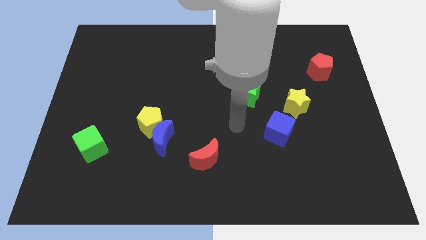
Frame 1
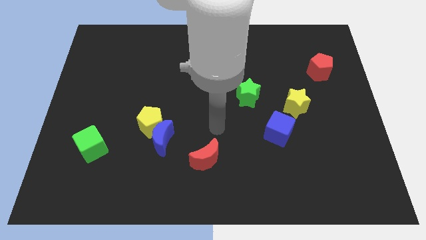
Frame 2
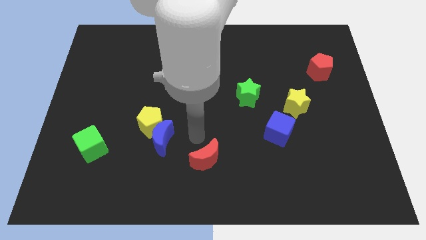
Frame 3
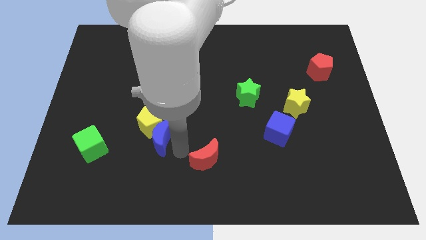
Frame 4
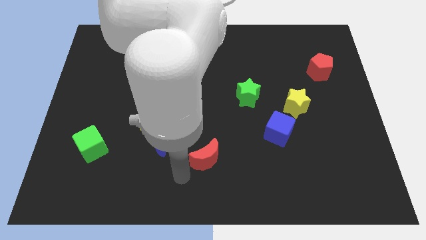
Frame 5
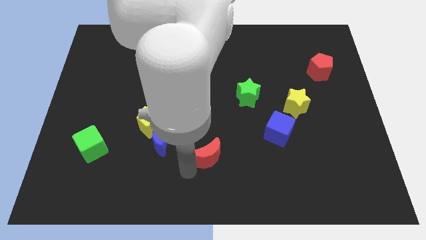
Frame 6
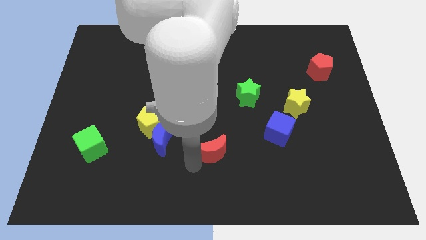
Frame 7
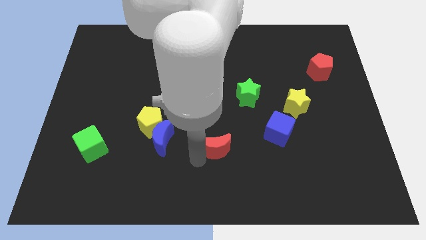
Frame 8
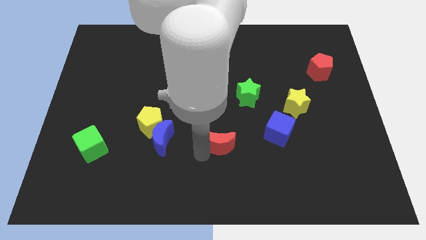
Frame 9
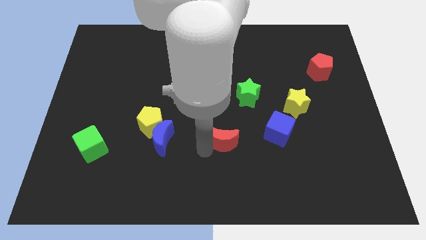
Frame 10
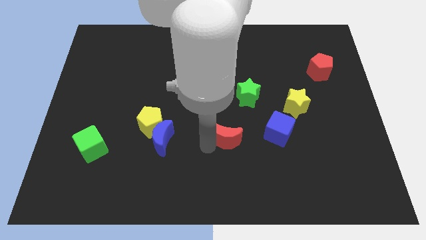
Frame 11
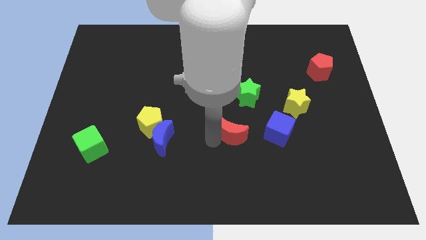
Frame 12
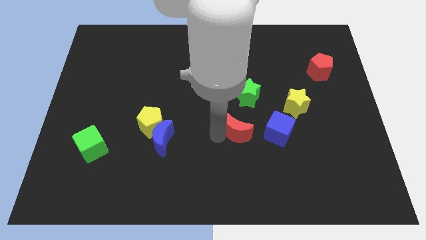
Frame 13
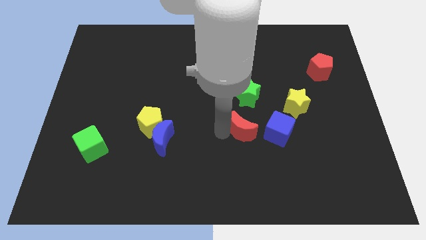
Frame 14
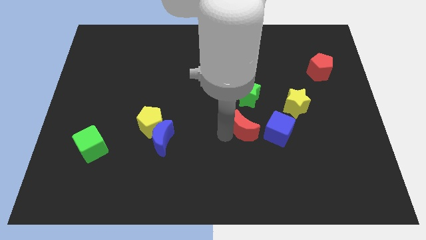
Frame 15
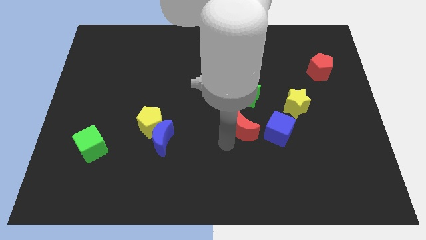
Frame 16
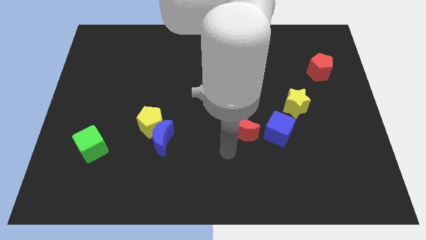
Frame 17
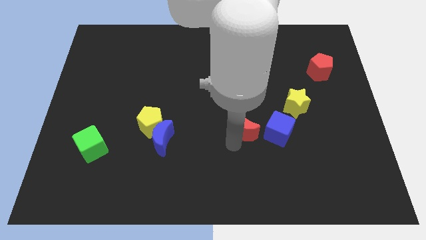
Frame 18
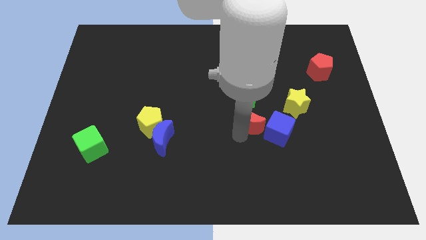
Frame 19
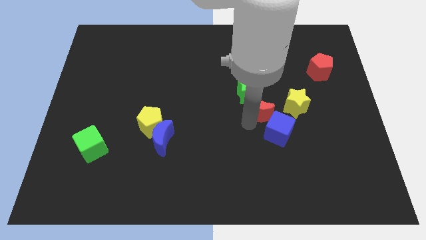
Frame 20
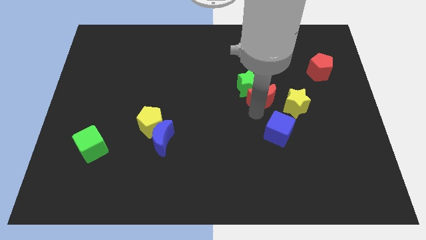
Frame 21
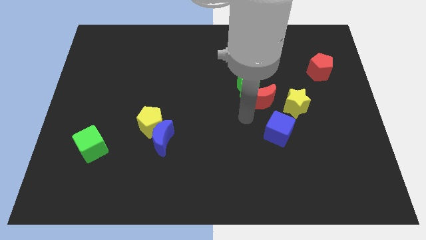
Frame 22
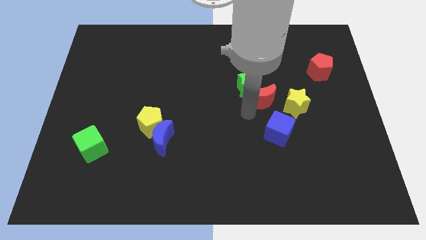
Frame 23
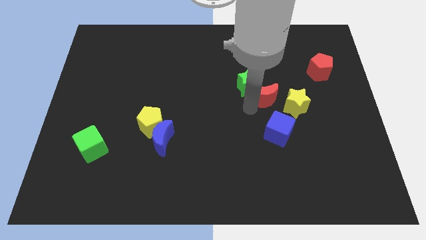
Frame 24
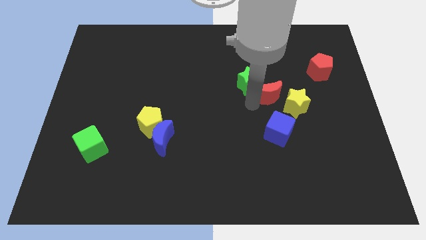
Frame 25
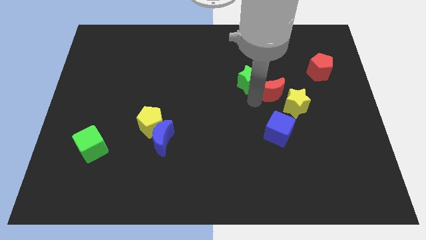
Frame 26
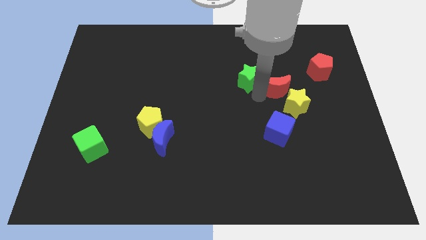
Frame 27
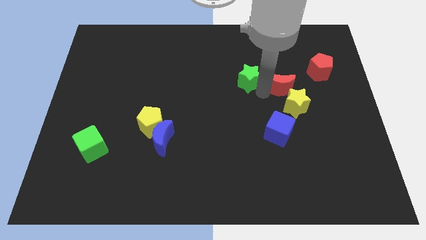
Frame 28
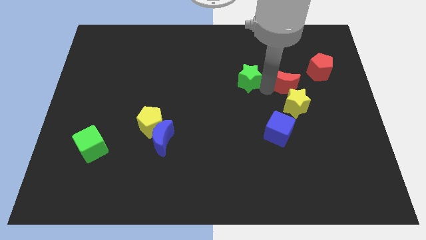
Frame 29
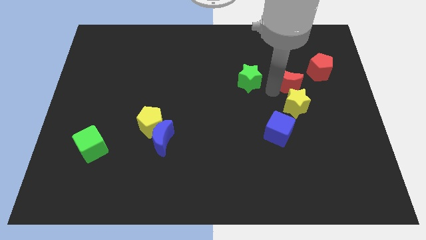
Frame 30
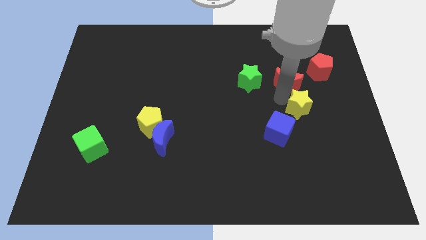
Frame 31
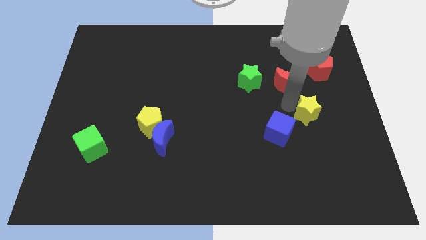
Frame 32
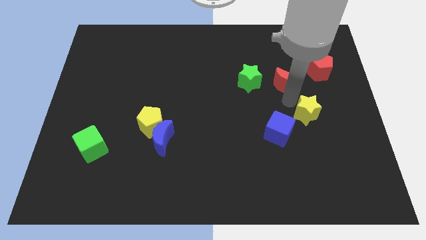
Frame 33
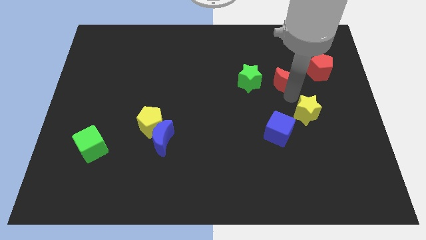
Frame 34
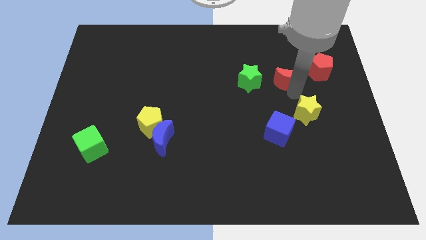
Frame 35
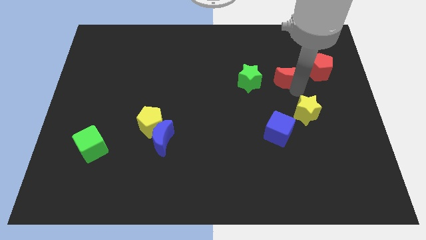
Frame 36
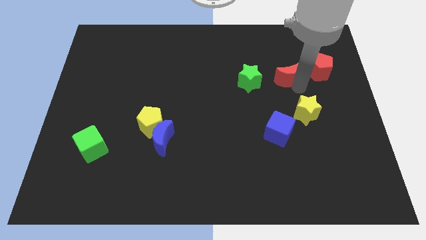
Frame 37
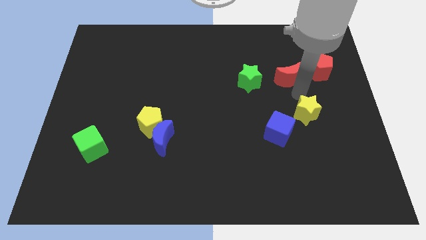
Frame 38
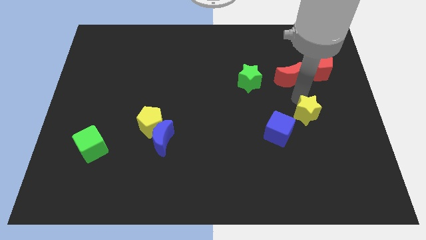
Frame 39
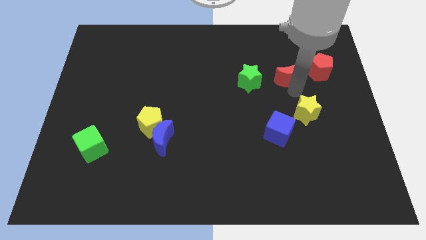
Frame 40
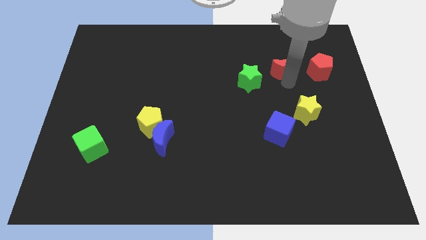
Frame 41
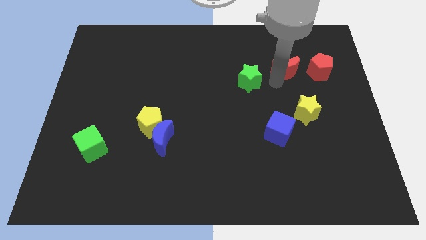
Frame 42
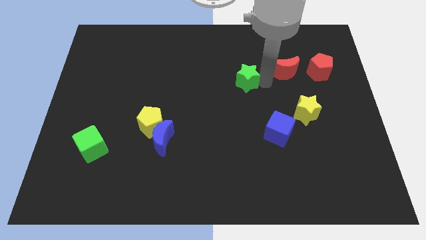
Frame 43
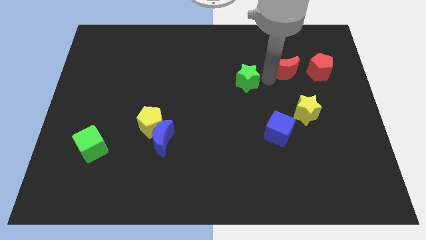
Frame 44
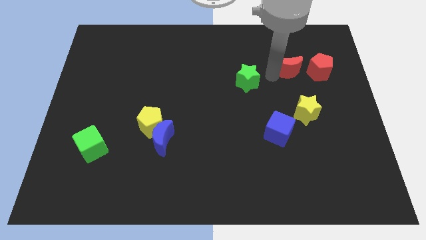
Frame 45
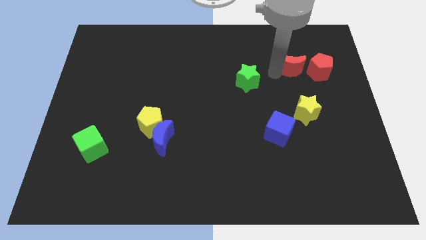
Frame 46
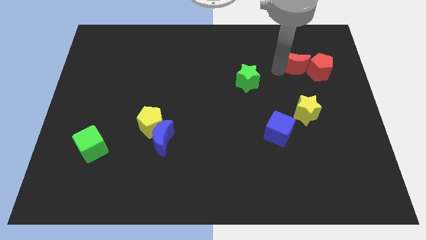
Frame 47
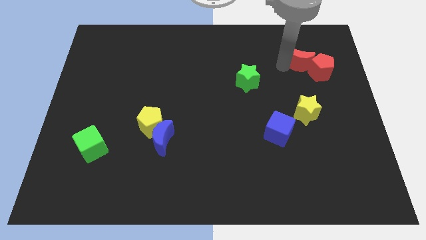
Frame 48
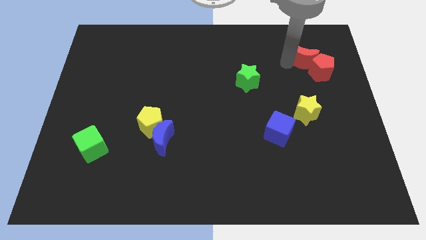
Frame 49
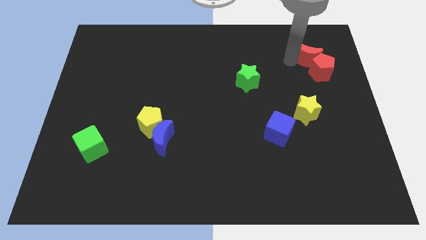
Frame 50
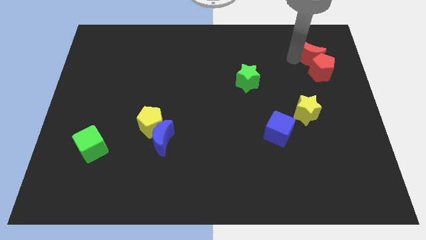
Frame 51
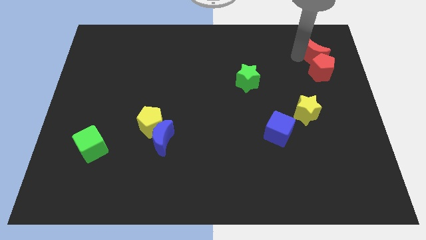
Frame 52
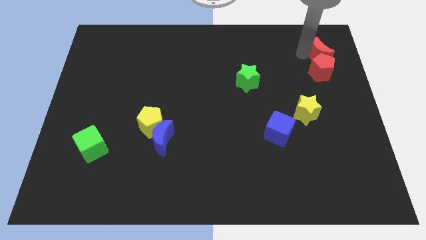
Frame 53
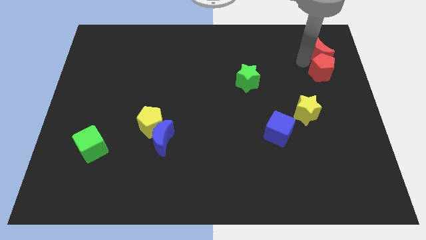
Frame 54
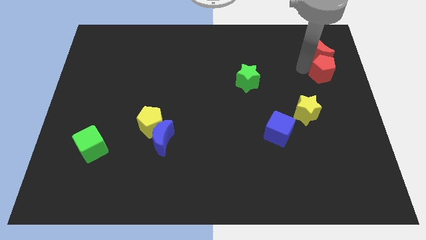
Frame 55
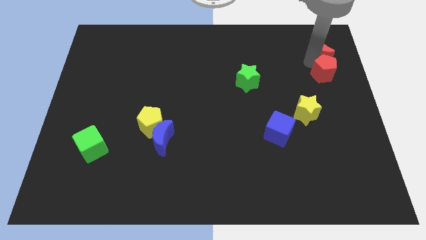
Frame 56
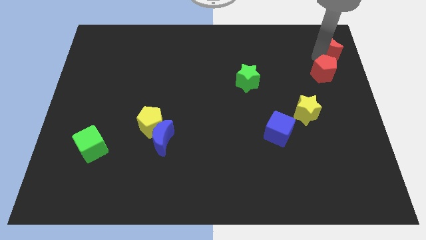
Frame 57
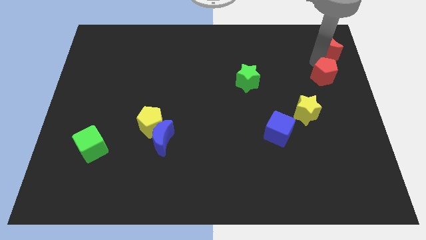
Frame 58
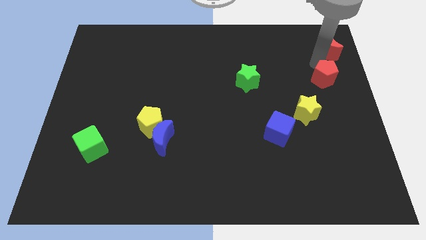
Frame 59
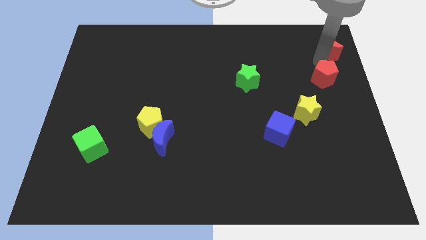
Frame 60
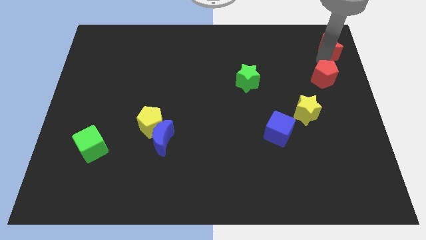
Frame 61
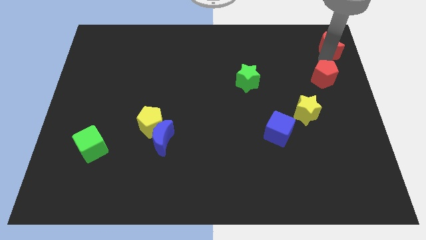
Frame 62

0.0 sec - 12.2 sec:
slide the red moon to the top right of the board

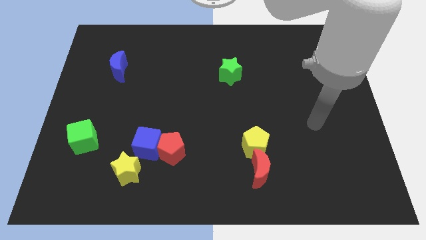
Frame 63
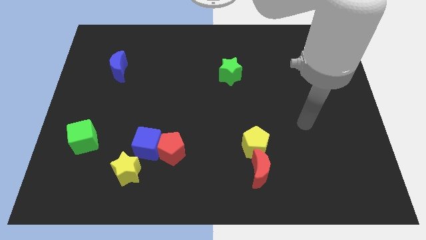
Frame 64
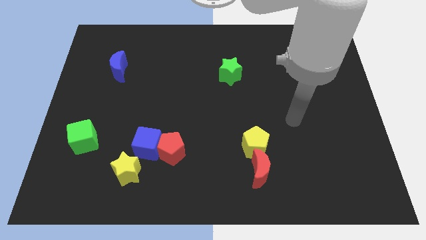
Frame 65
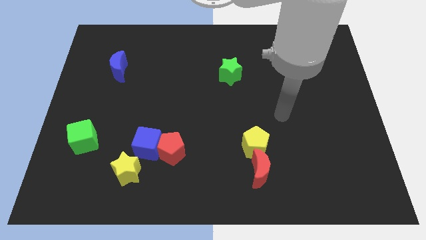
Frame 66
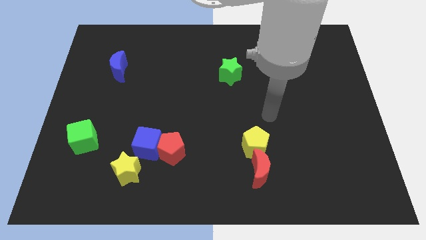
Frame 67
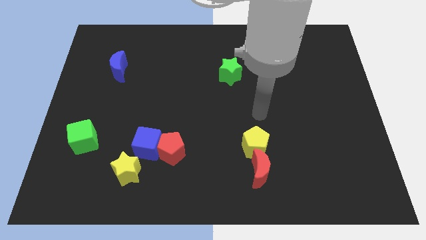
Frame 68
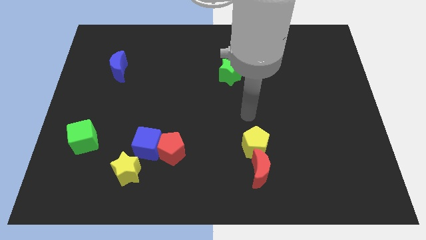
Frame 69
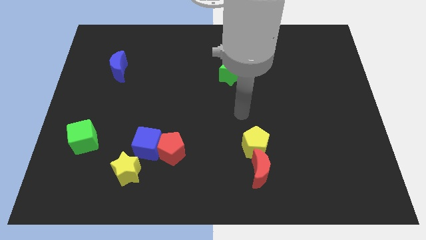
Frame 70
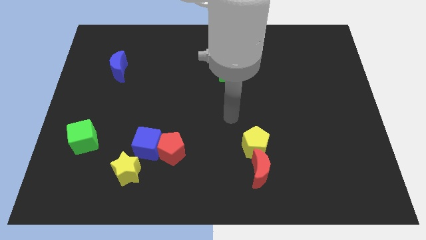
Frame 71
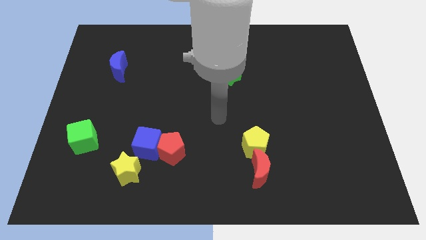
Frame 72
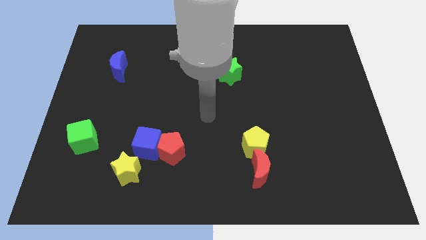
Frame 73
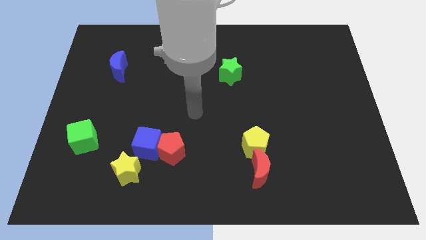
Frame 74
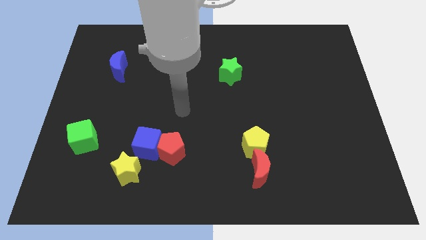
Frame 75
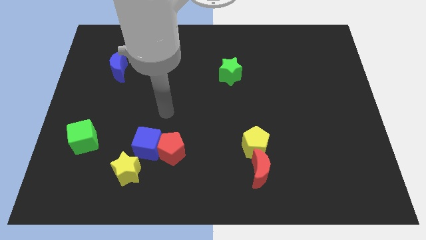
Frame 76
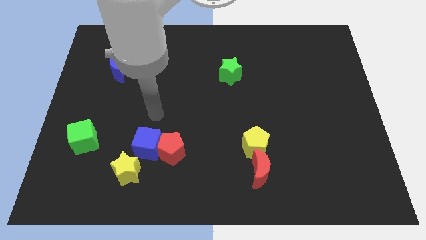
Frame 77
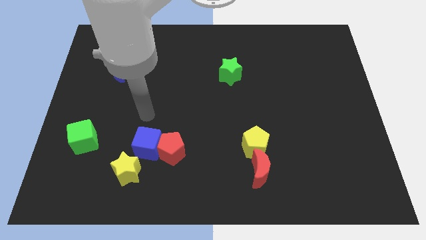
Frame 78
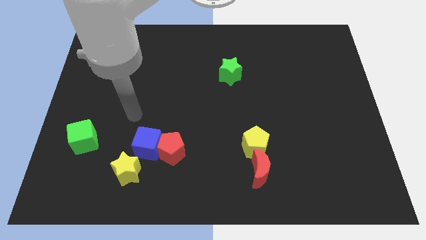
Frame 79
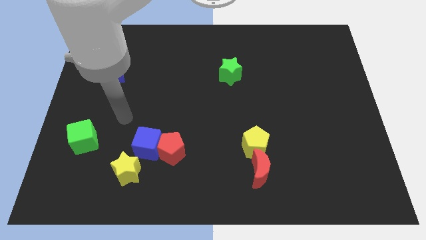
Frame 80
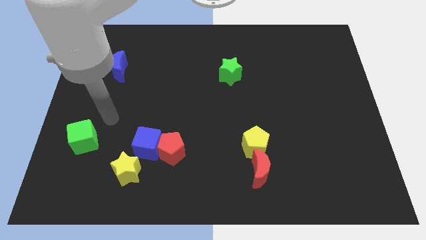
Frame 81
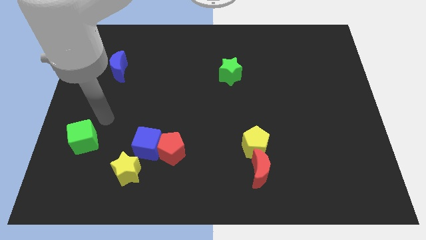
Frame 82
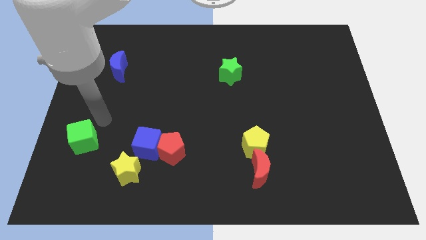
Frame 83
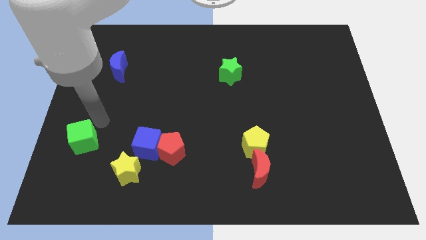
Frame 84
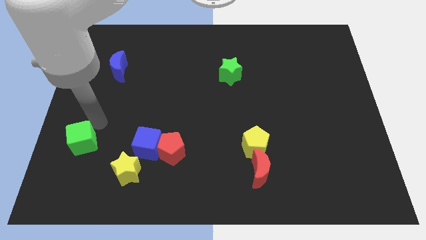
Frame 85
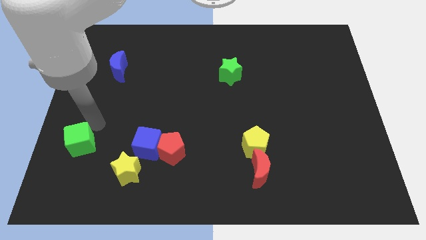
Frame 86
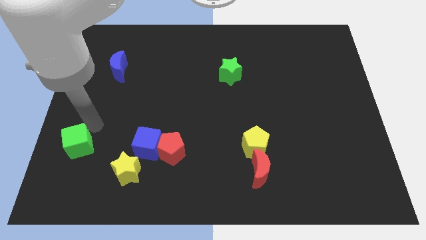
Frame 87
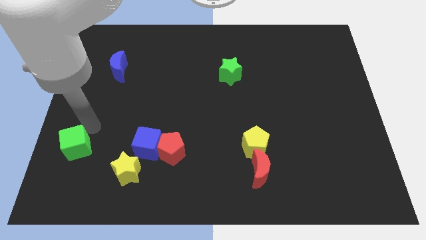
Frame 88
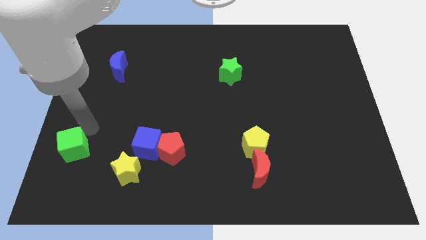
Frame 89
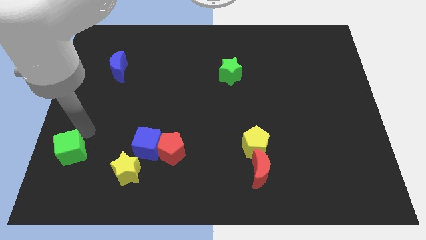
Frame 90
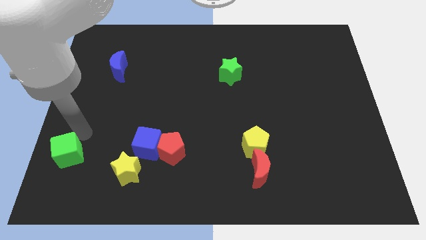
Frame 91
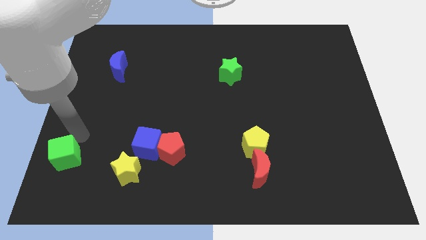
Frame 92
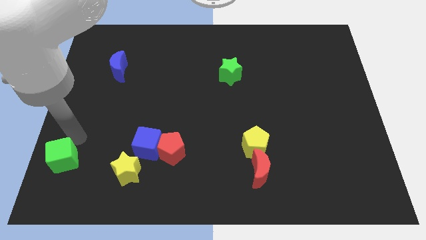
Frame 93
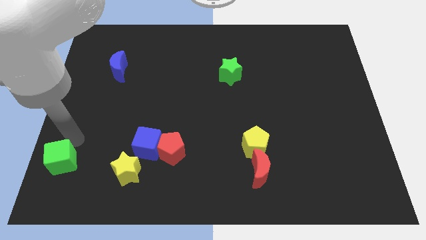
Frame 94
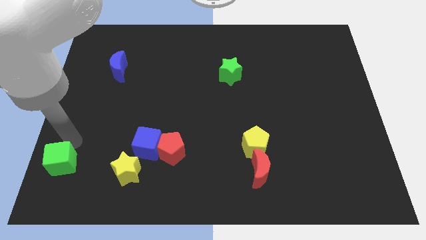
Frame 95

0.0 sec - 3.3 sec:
put the green cube to the bottom left corner
